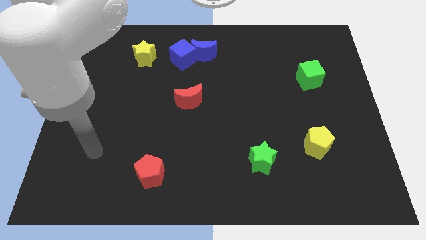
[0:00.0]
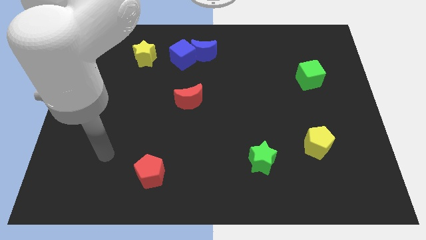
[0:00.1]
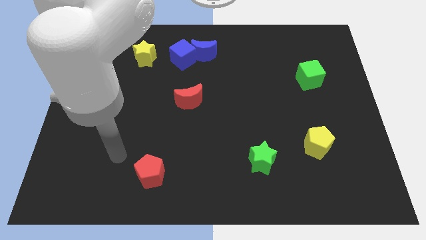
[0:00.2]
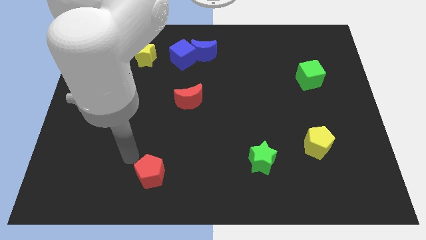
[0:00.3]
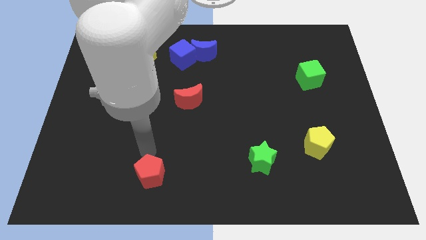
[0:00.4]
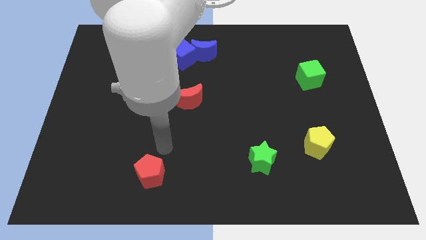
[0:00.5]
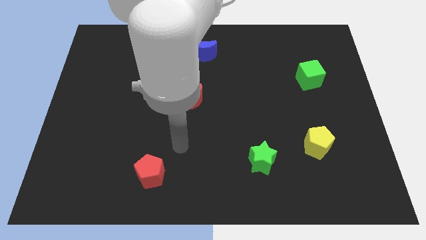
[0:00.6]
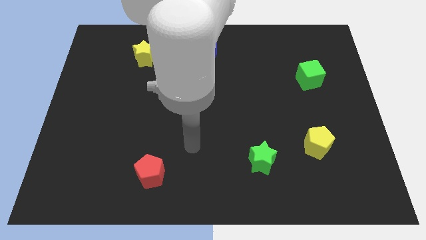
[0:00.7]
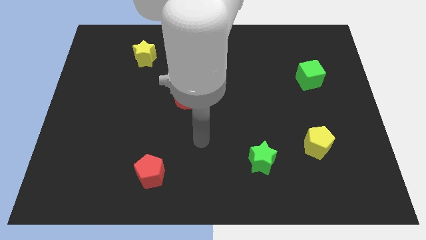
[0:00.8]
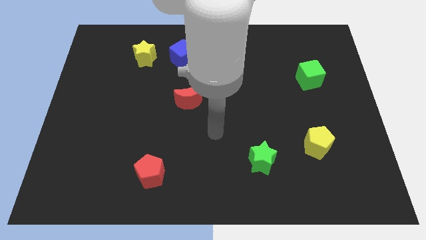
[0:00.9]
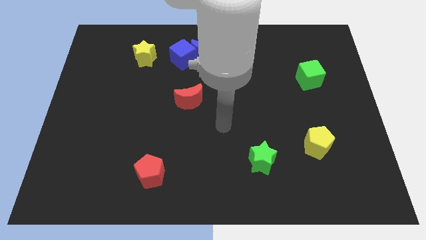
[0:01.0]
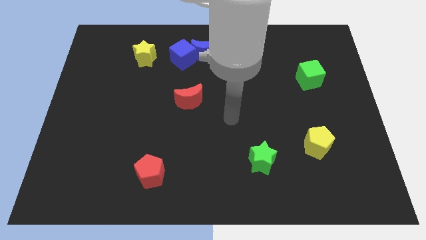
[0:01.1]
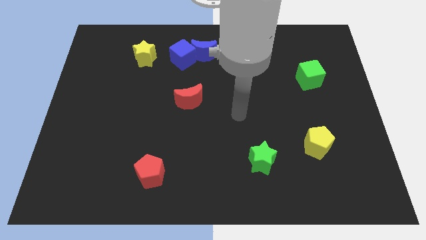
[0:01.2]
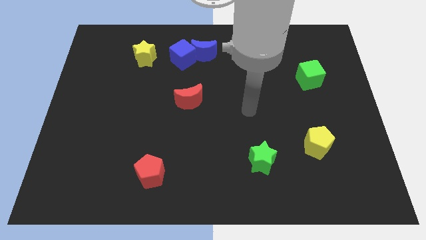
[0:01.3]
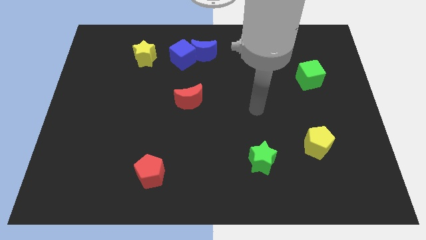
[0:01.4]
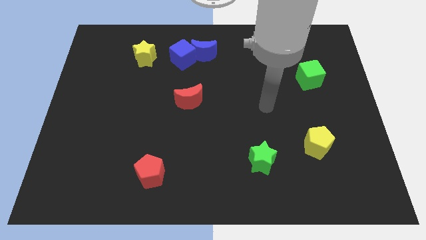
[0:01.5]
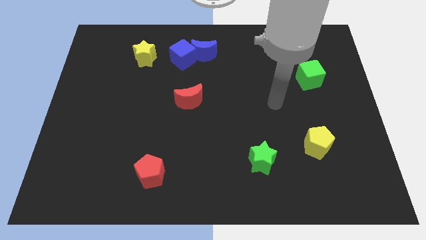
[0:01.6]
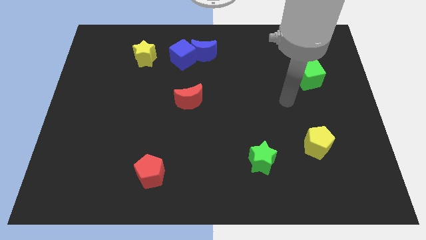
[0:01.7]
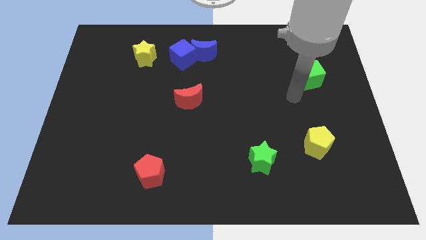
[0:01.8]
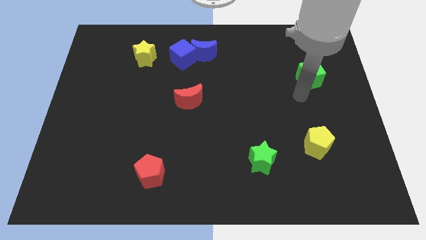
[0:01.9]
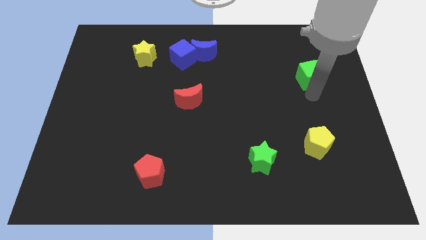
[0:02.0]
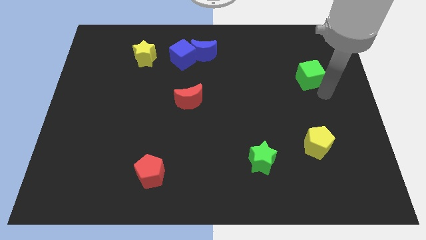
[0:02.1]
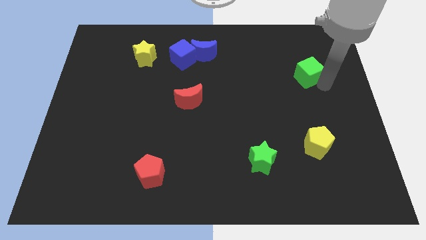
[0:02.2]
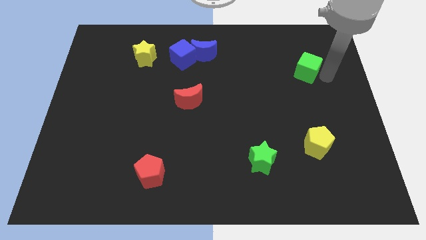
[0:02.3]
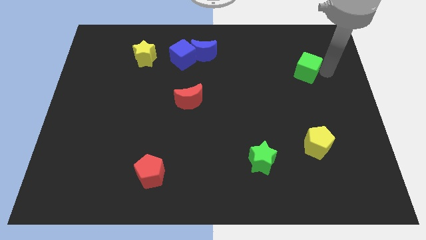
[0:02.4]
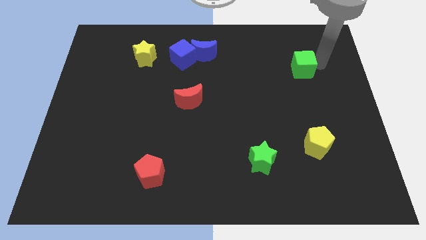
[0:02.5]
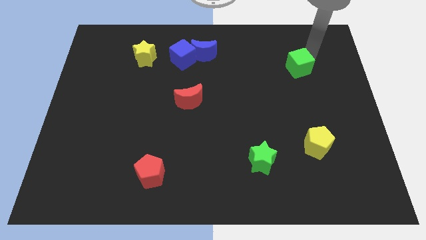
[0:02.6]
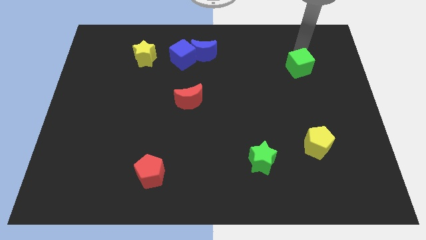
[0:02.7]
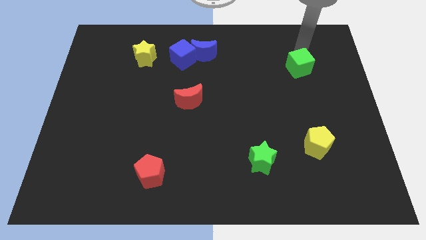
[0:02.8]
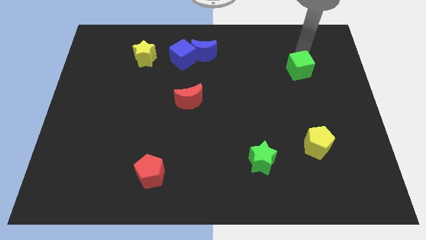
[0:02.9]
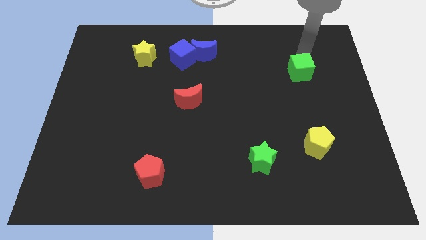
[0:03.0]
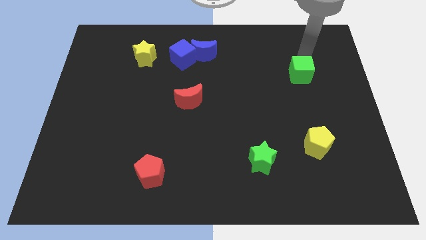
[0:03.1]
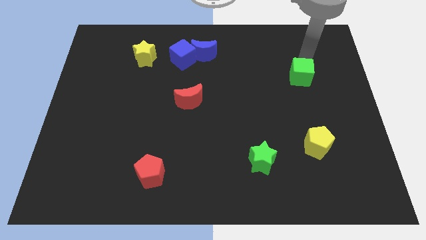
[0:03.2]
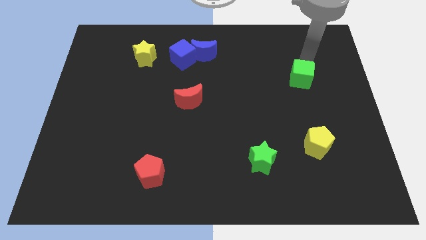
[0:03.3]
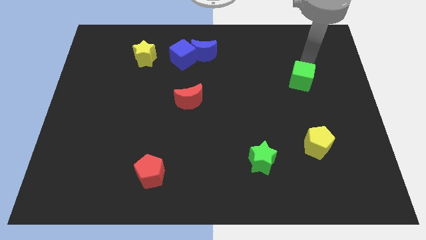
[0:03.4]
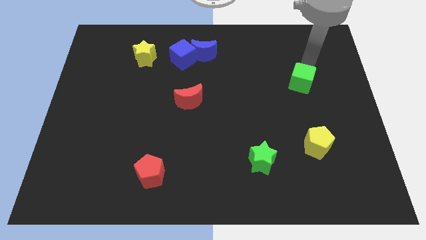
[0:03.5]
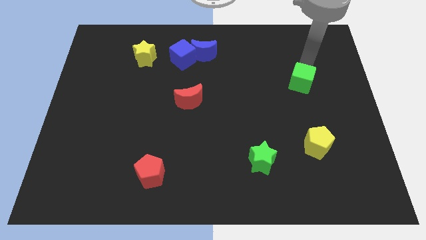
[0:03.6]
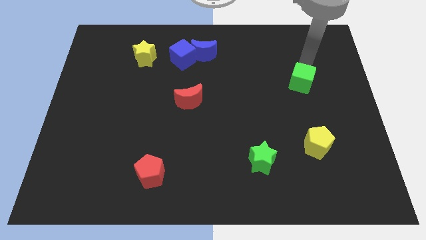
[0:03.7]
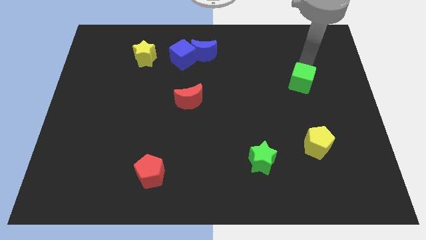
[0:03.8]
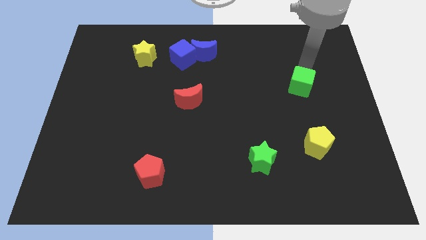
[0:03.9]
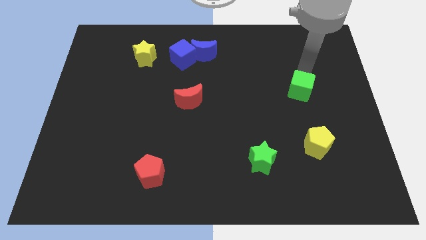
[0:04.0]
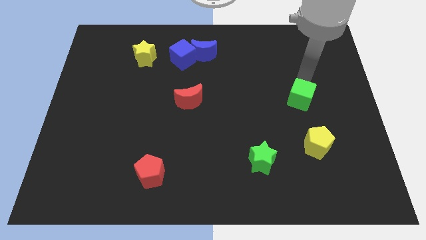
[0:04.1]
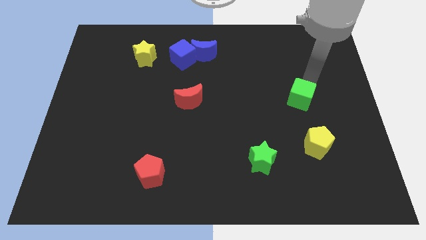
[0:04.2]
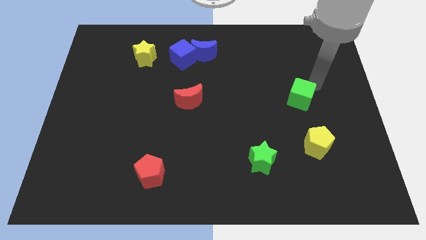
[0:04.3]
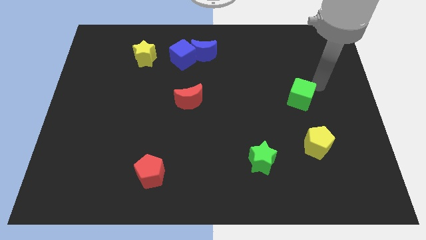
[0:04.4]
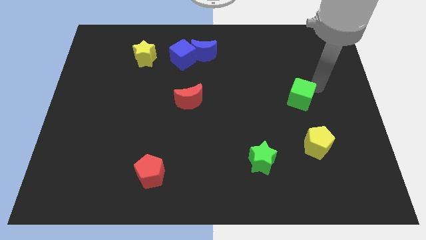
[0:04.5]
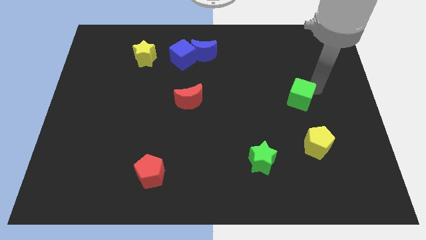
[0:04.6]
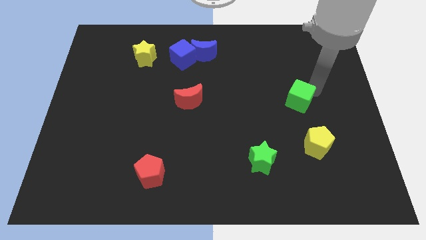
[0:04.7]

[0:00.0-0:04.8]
move the green cube diagonally downwards and to the left a bit

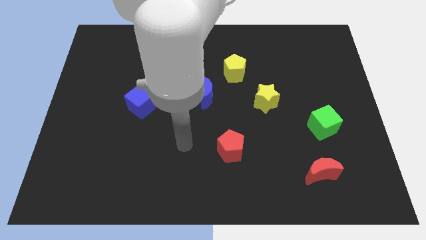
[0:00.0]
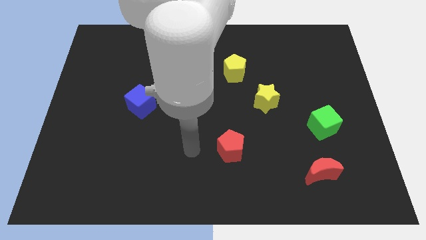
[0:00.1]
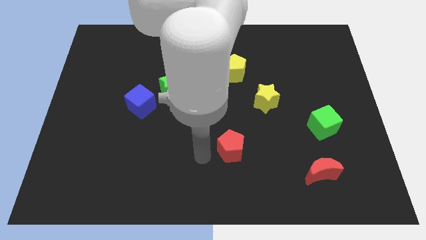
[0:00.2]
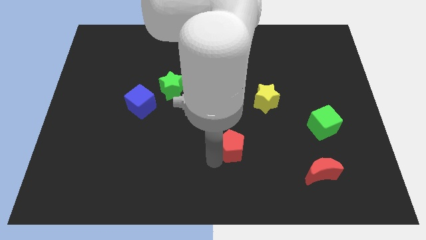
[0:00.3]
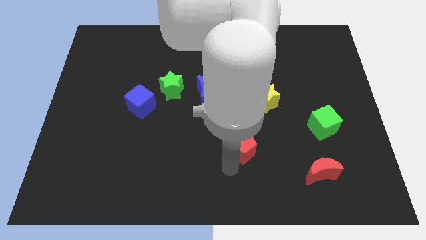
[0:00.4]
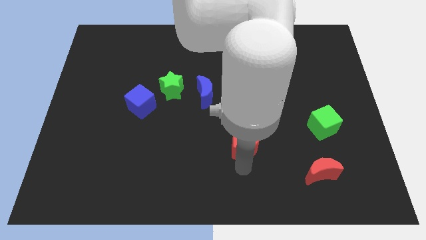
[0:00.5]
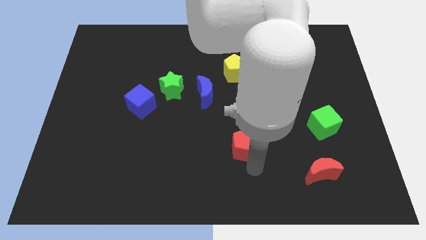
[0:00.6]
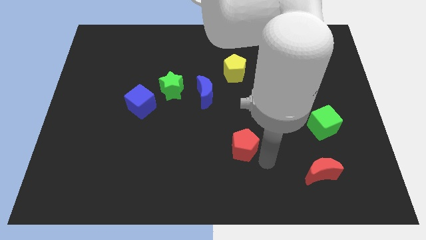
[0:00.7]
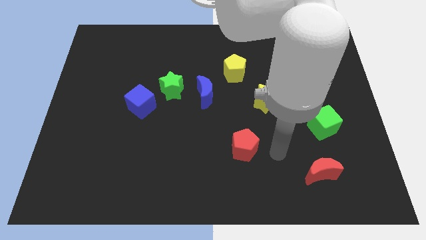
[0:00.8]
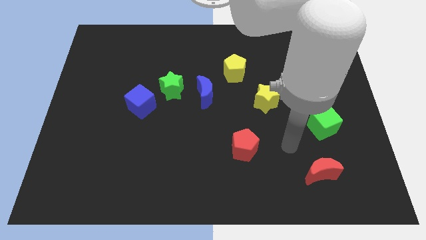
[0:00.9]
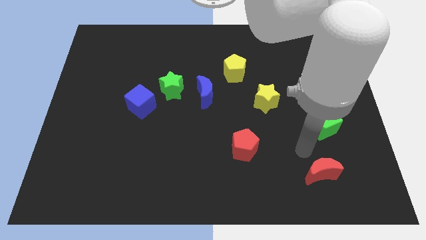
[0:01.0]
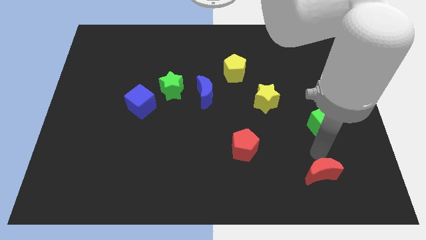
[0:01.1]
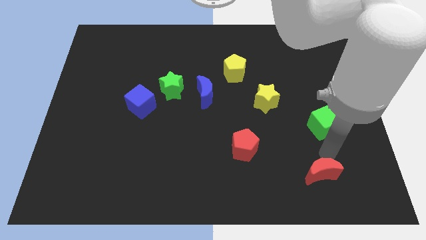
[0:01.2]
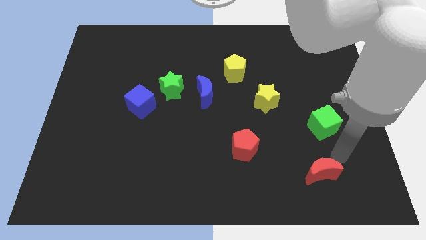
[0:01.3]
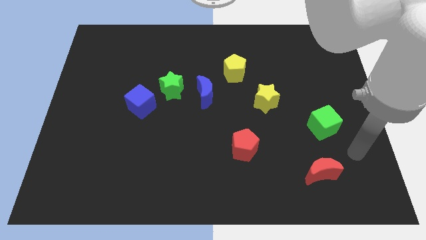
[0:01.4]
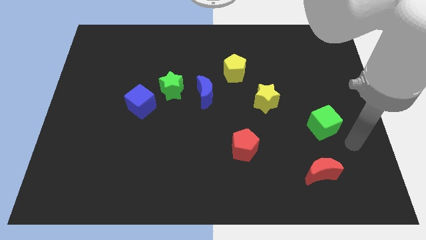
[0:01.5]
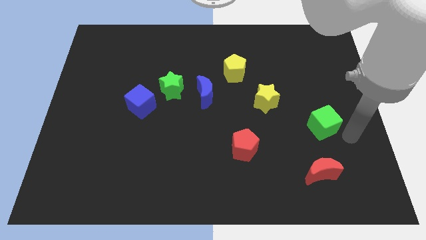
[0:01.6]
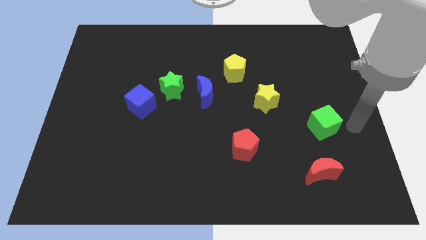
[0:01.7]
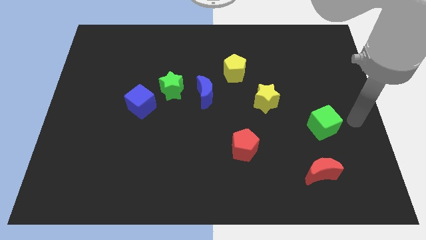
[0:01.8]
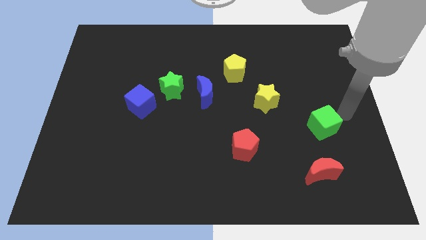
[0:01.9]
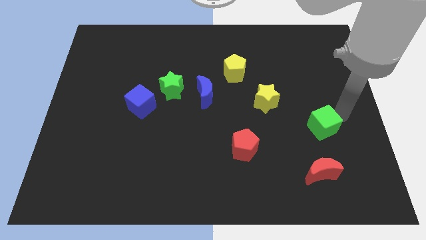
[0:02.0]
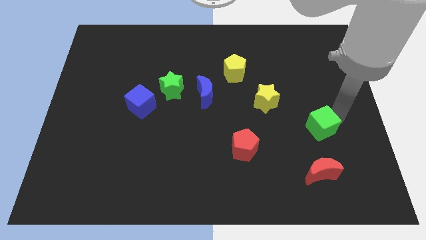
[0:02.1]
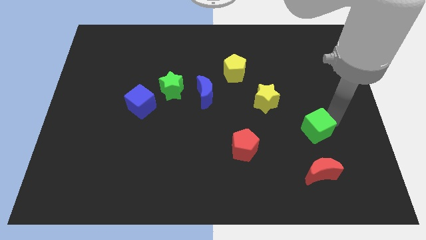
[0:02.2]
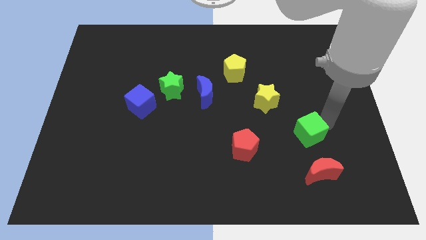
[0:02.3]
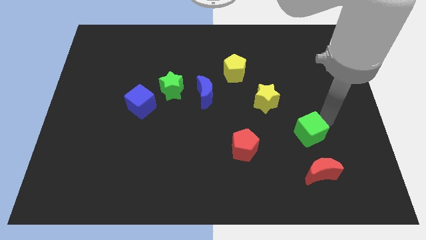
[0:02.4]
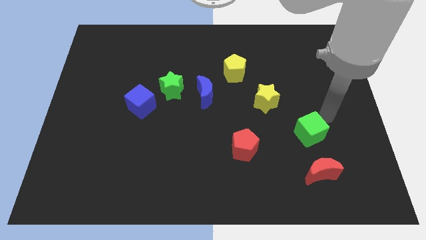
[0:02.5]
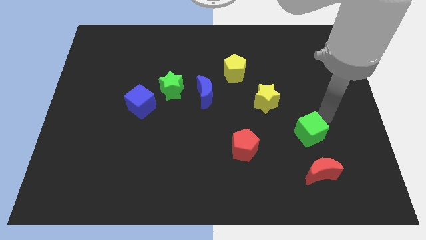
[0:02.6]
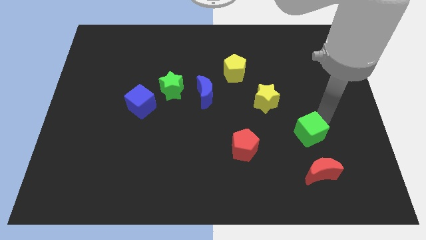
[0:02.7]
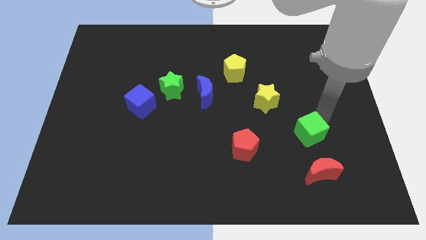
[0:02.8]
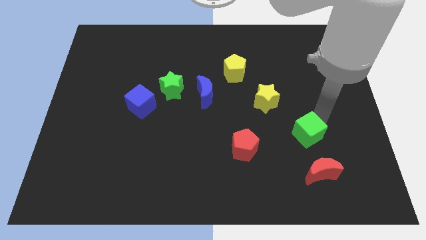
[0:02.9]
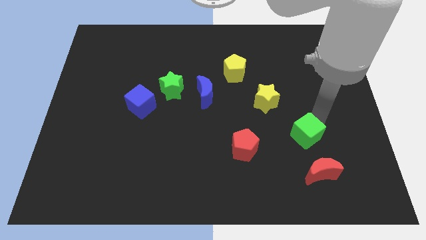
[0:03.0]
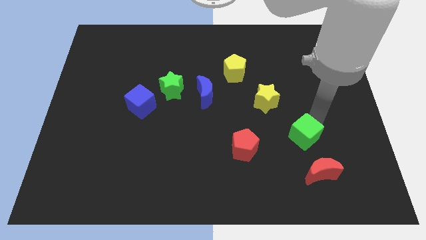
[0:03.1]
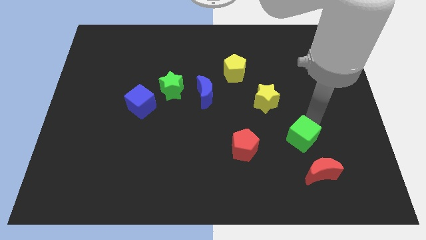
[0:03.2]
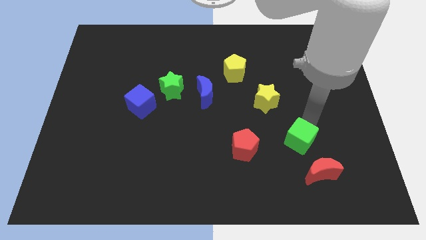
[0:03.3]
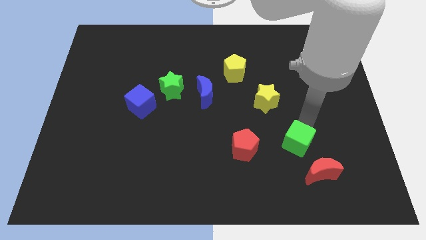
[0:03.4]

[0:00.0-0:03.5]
move the green cube a bit downwards and then left
